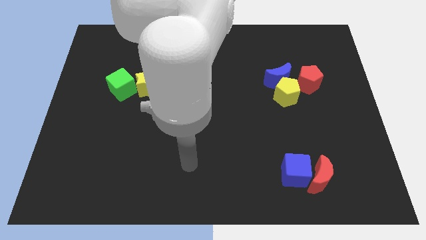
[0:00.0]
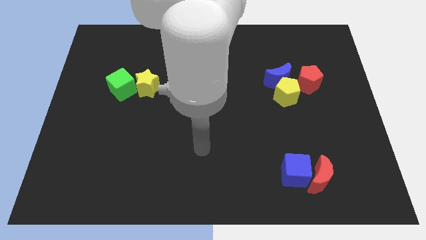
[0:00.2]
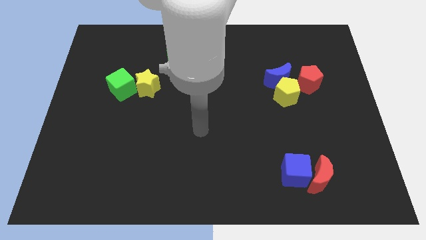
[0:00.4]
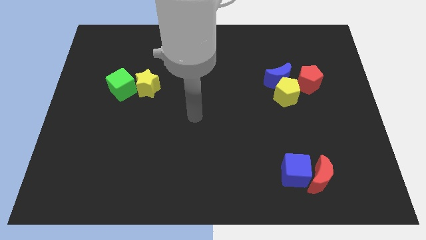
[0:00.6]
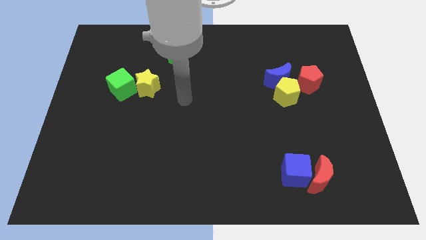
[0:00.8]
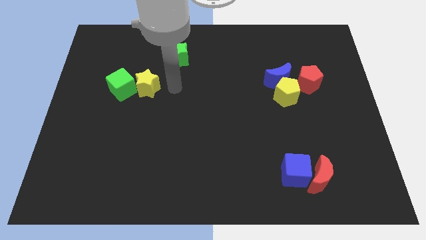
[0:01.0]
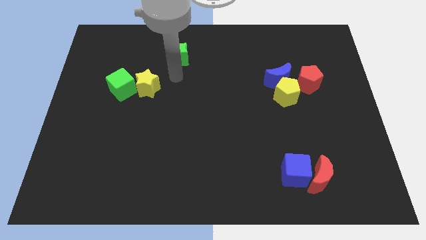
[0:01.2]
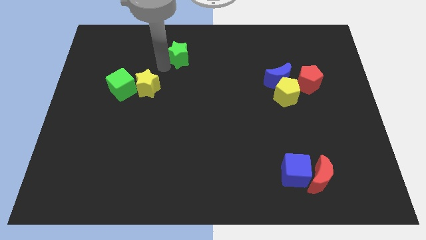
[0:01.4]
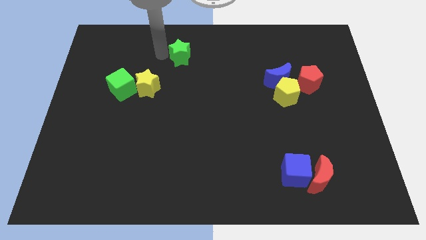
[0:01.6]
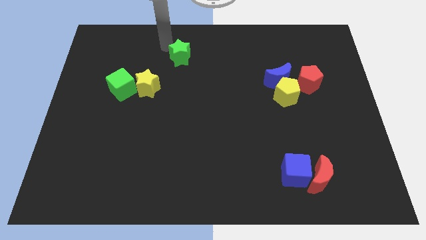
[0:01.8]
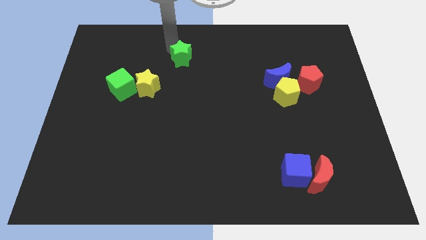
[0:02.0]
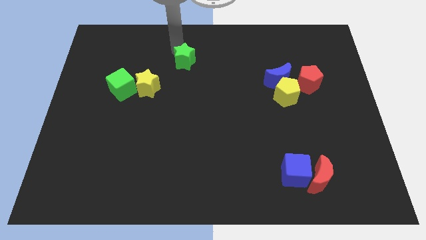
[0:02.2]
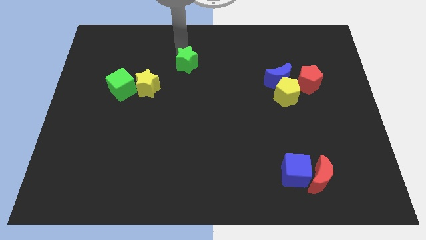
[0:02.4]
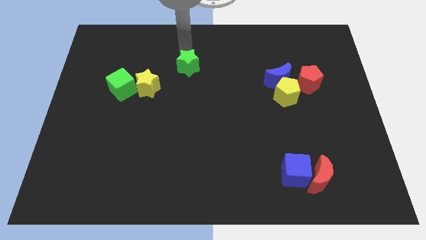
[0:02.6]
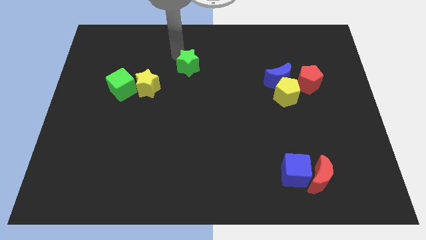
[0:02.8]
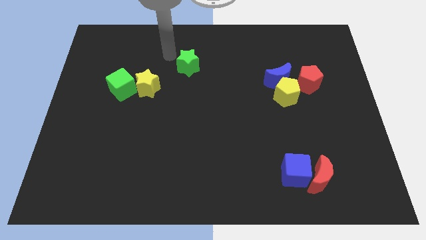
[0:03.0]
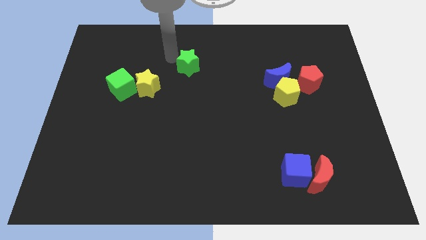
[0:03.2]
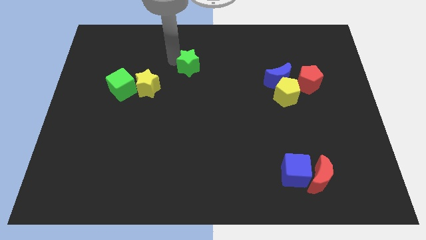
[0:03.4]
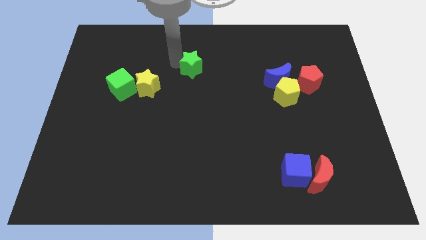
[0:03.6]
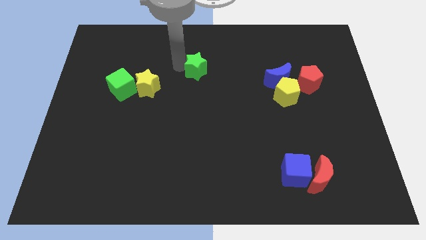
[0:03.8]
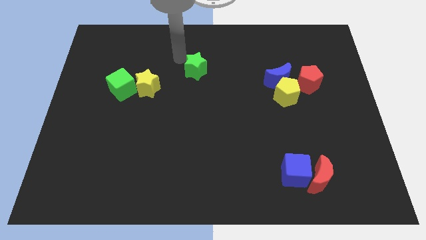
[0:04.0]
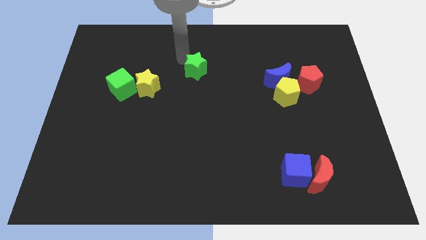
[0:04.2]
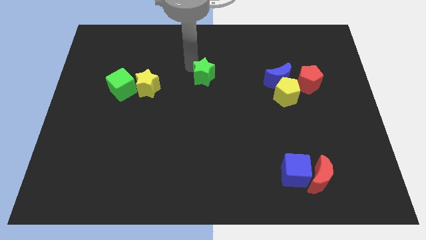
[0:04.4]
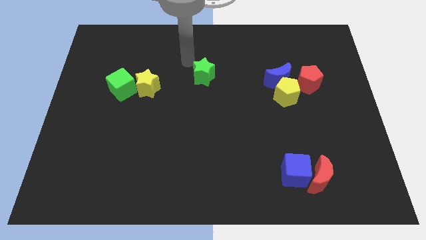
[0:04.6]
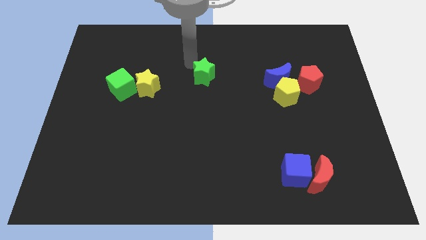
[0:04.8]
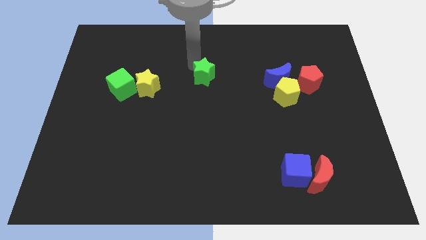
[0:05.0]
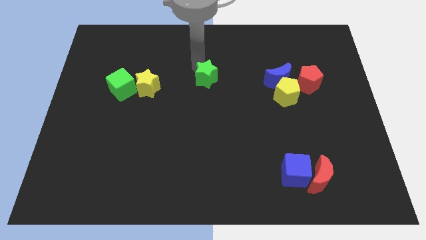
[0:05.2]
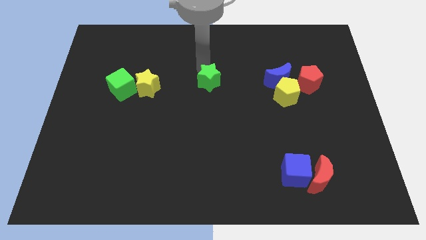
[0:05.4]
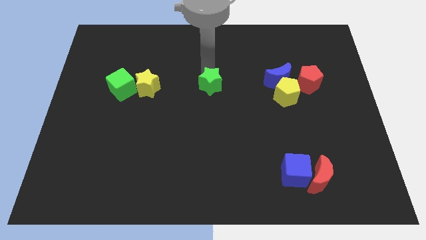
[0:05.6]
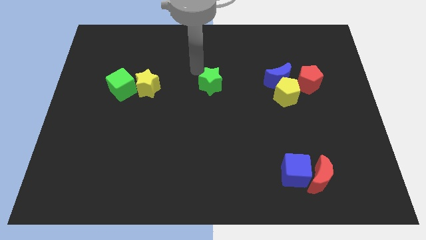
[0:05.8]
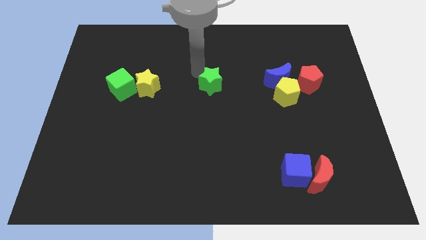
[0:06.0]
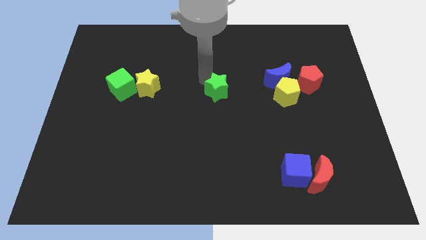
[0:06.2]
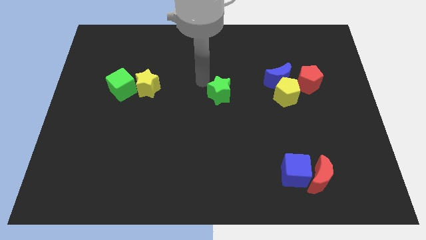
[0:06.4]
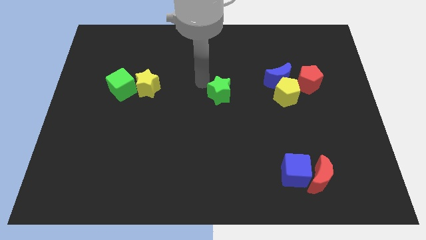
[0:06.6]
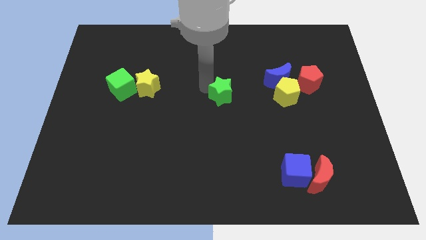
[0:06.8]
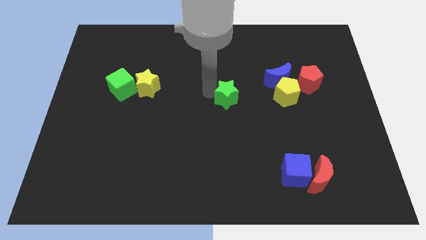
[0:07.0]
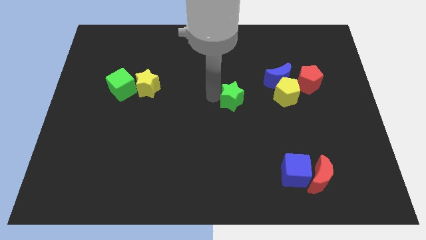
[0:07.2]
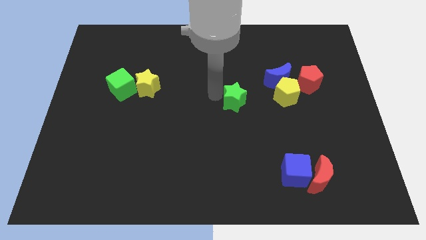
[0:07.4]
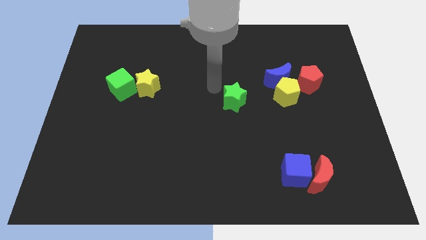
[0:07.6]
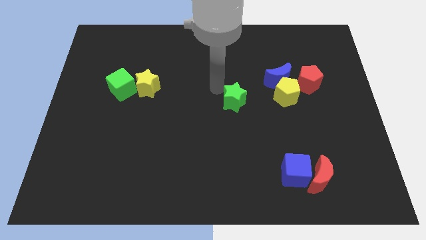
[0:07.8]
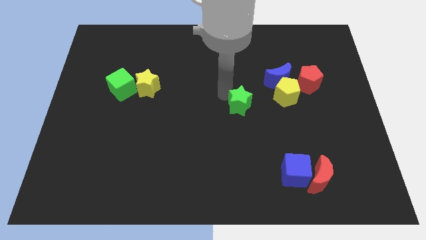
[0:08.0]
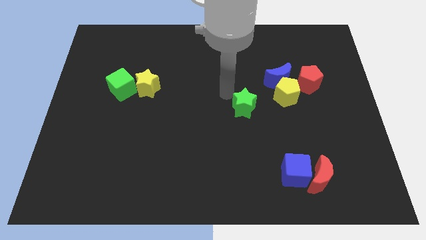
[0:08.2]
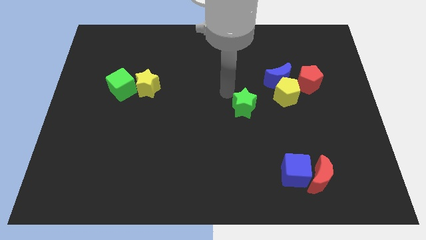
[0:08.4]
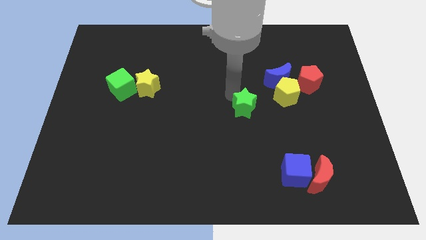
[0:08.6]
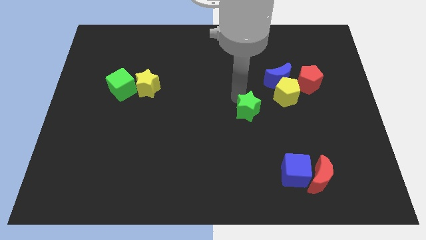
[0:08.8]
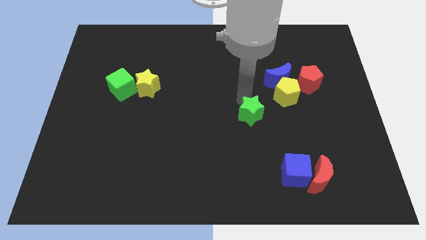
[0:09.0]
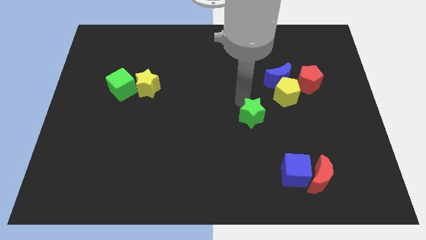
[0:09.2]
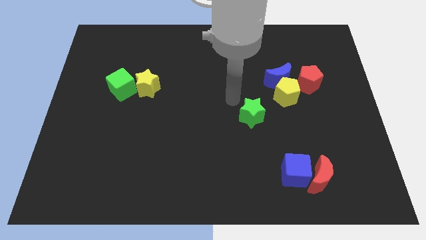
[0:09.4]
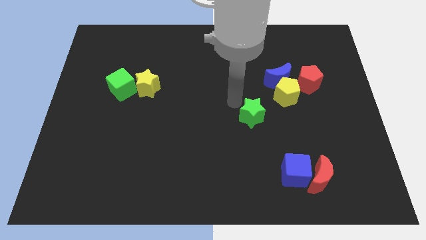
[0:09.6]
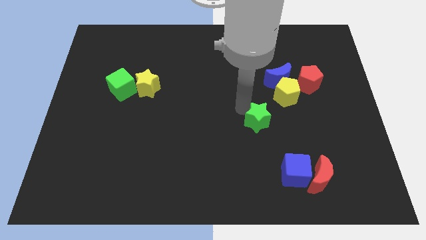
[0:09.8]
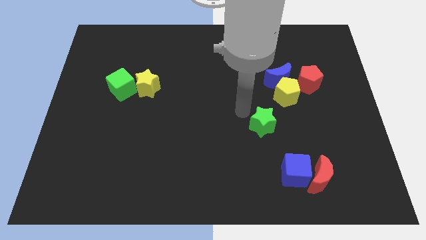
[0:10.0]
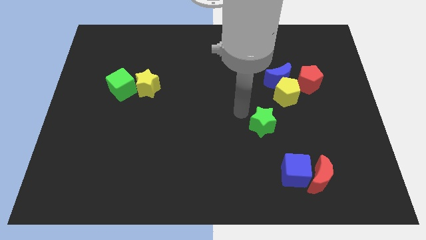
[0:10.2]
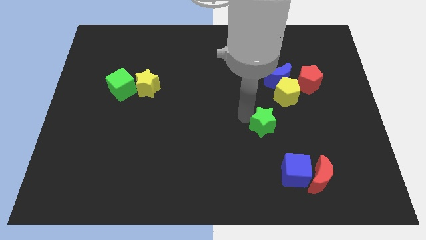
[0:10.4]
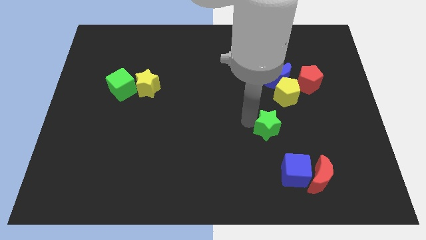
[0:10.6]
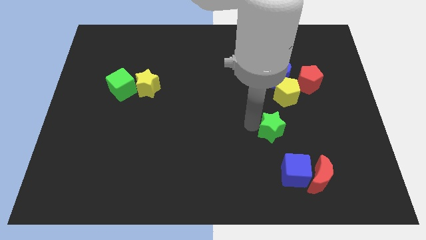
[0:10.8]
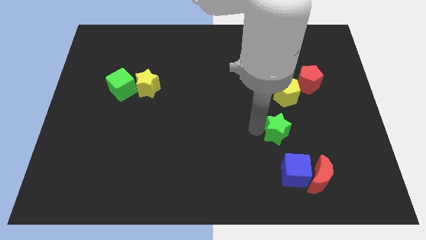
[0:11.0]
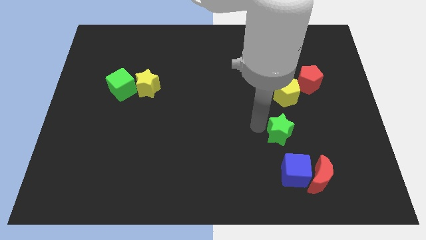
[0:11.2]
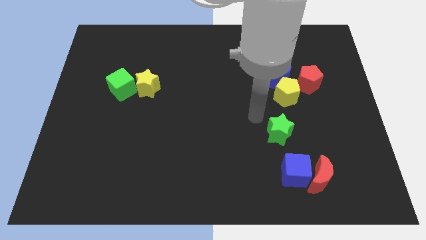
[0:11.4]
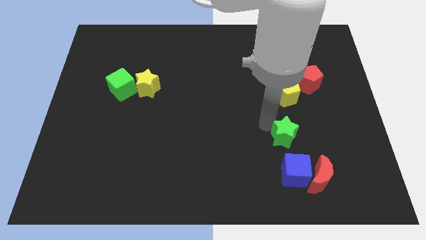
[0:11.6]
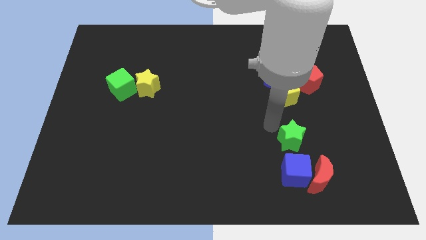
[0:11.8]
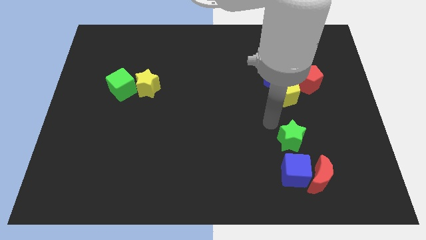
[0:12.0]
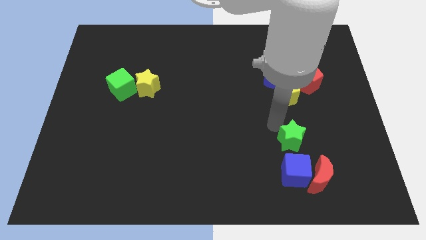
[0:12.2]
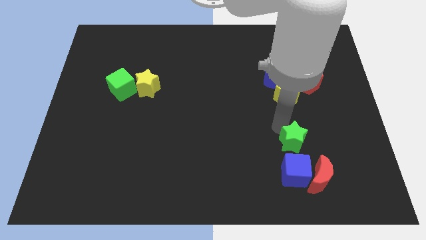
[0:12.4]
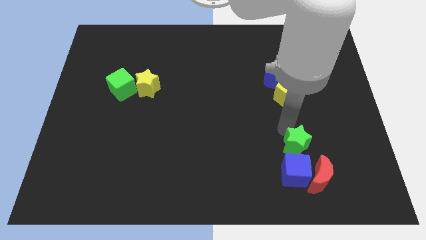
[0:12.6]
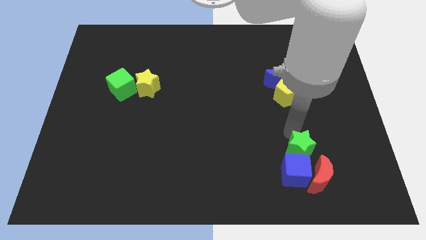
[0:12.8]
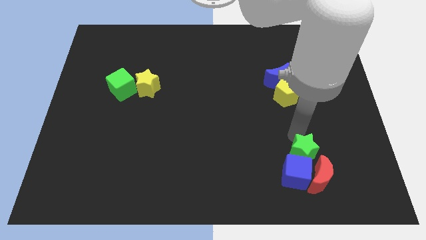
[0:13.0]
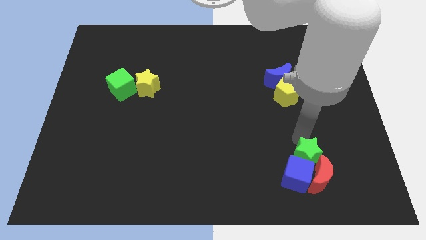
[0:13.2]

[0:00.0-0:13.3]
move the green star to the red moon

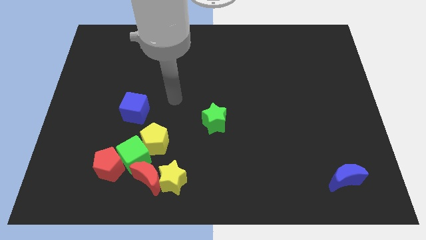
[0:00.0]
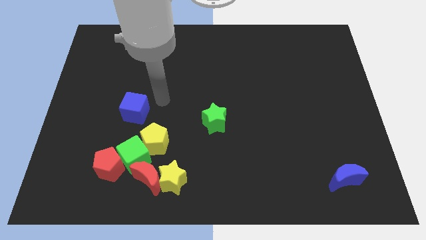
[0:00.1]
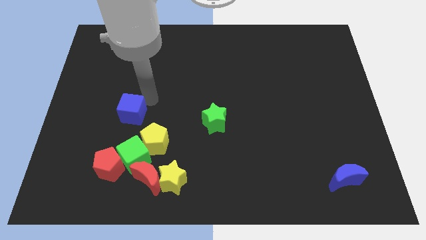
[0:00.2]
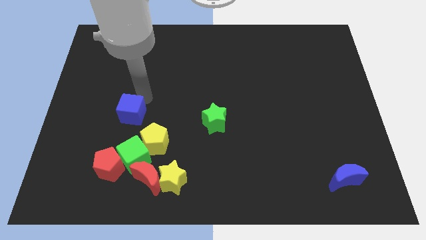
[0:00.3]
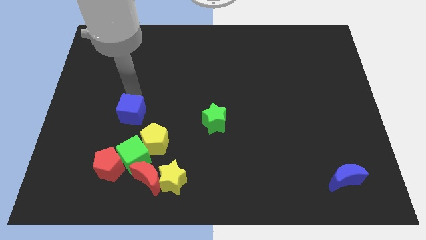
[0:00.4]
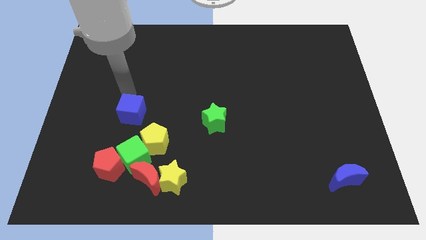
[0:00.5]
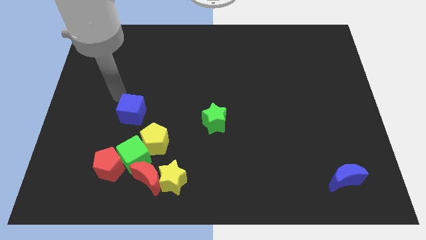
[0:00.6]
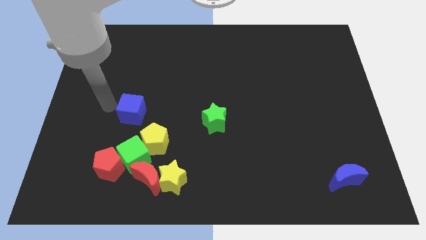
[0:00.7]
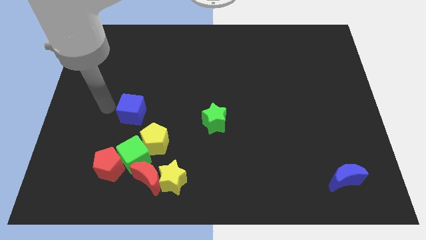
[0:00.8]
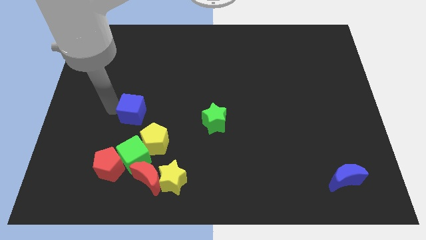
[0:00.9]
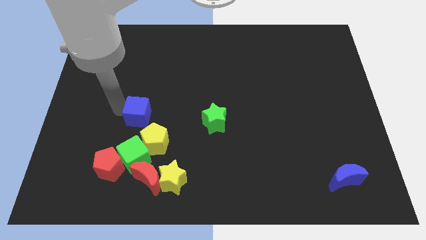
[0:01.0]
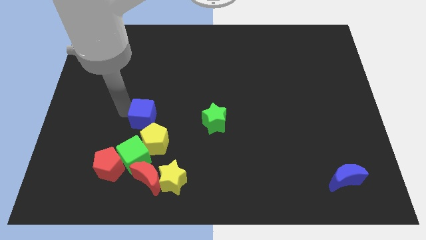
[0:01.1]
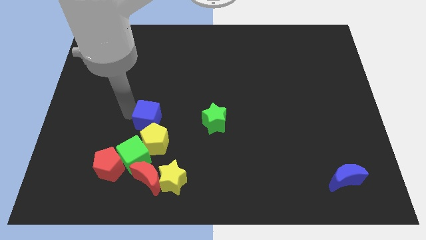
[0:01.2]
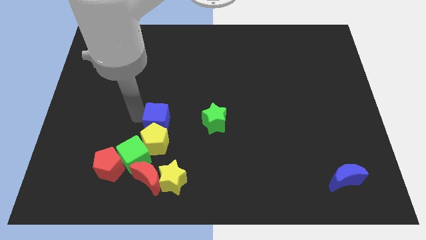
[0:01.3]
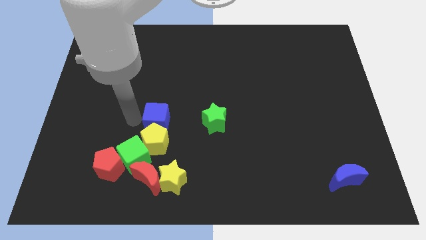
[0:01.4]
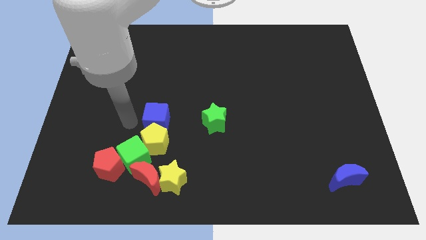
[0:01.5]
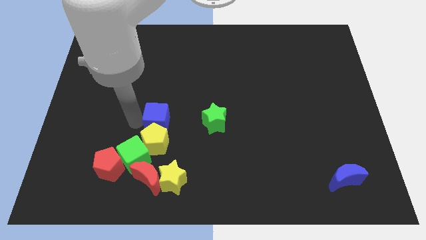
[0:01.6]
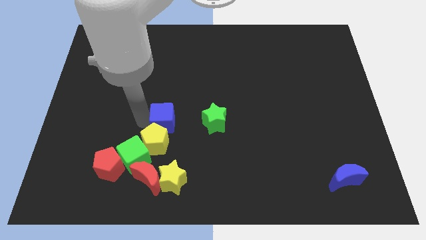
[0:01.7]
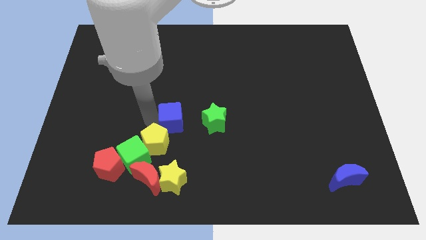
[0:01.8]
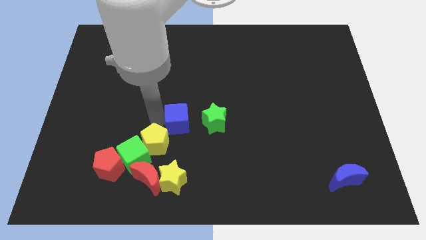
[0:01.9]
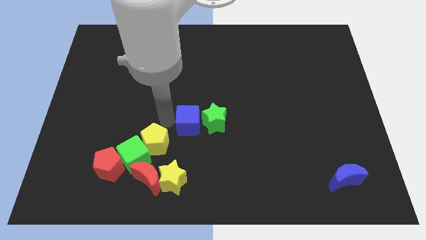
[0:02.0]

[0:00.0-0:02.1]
push the blue cube close to the green star
